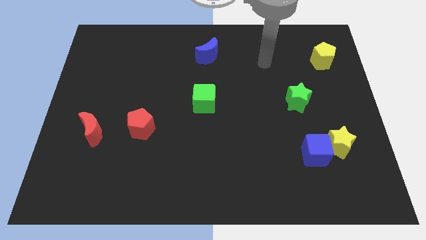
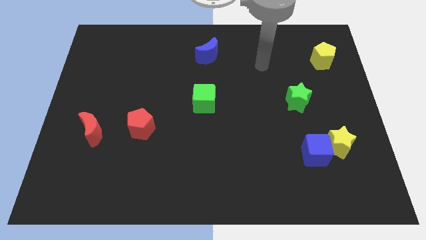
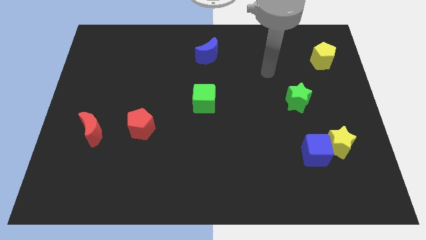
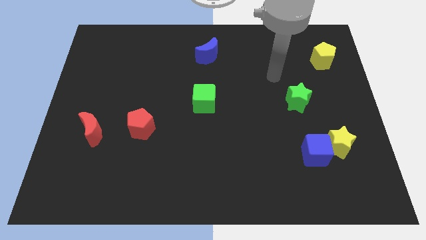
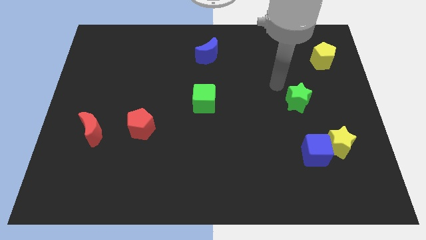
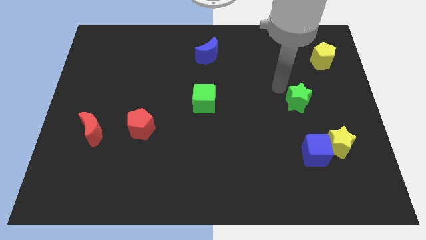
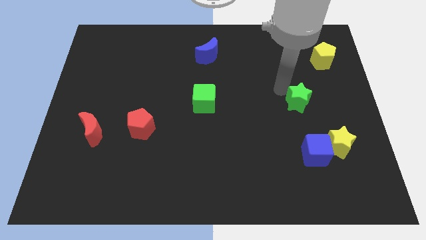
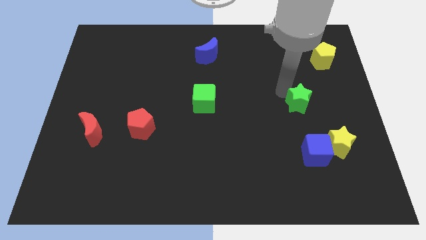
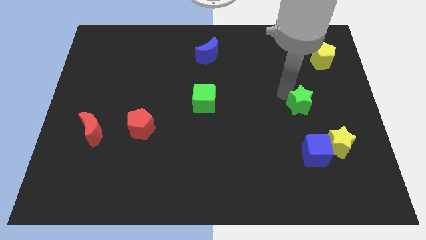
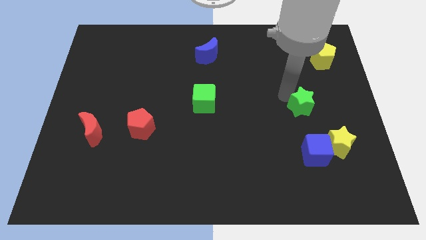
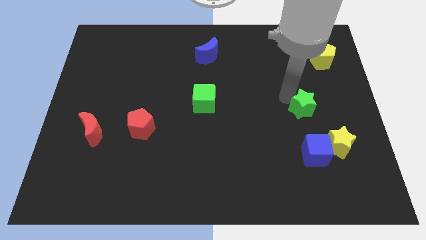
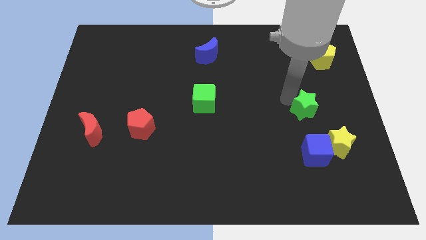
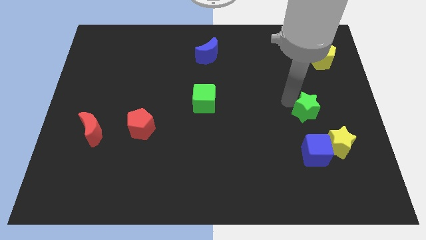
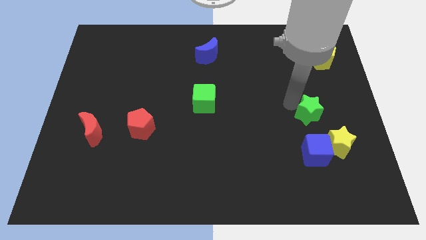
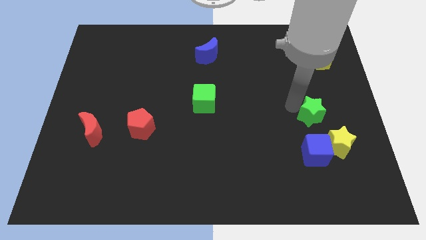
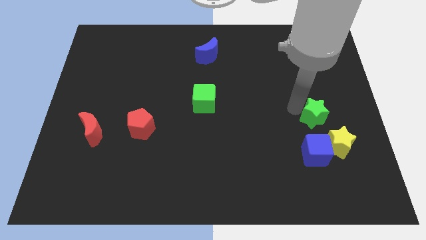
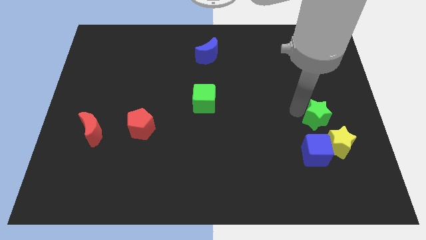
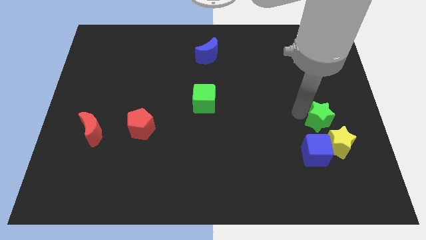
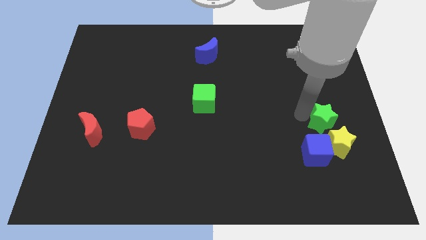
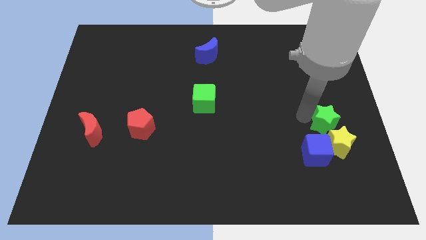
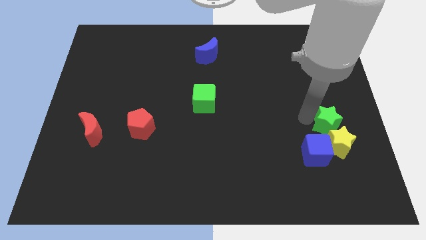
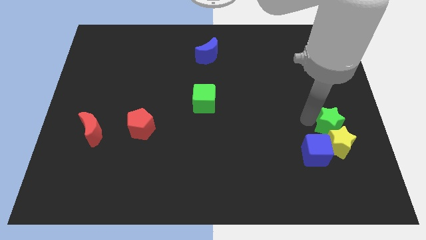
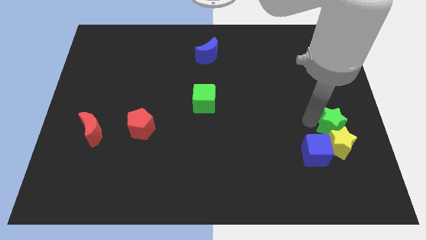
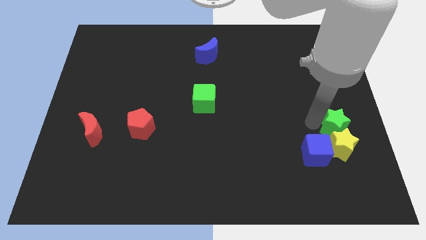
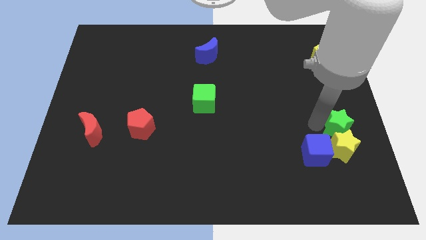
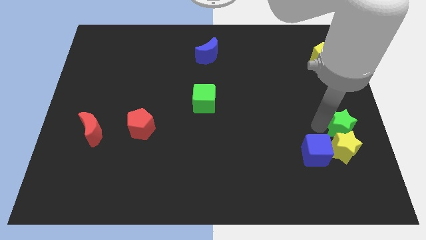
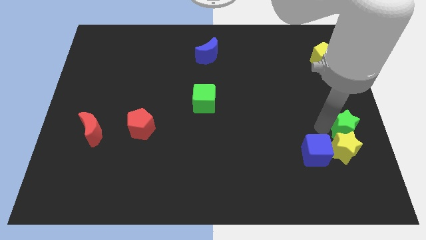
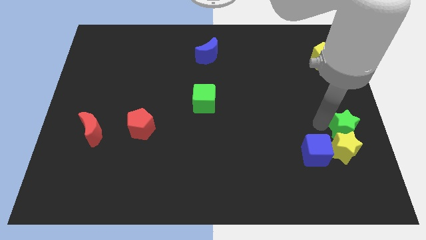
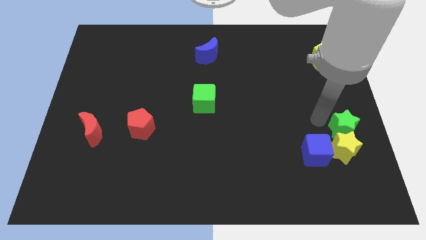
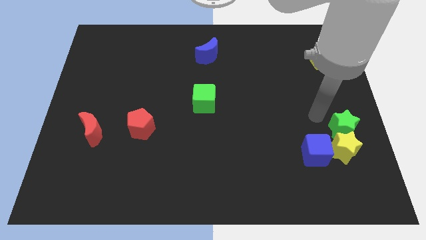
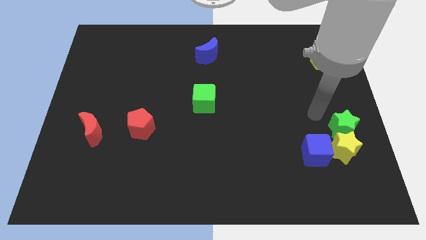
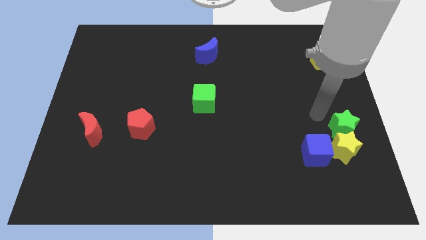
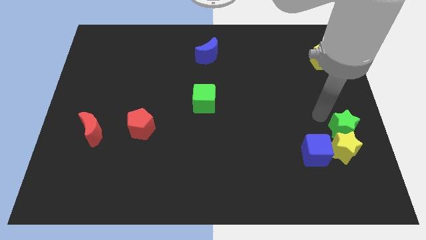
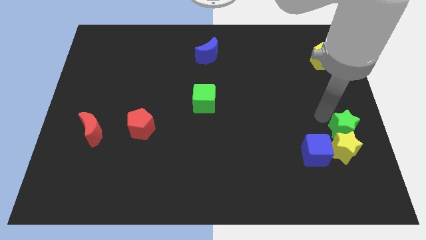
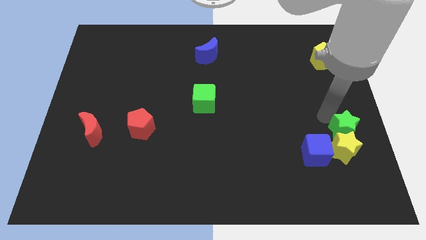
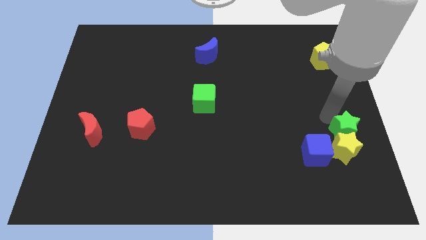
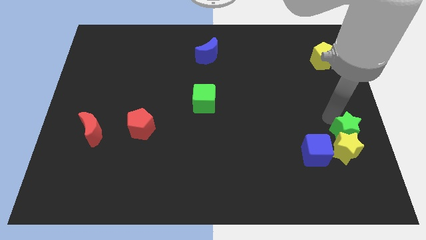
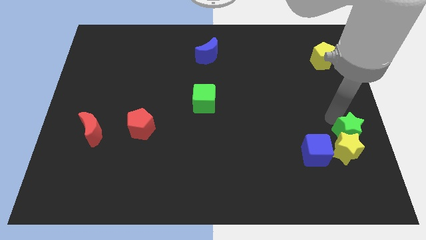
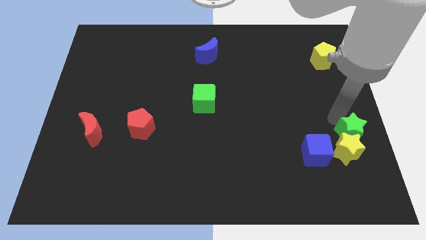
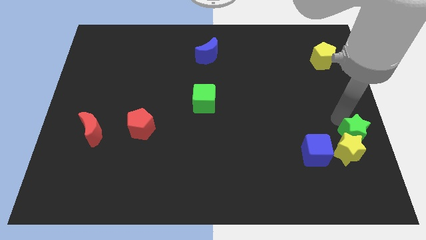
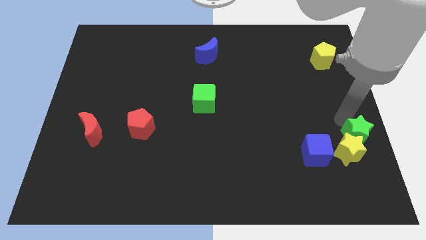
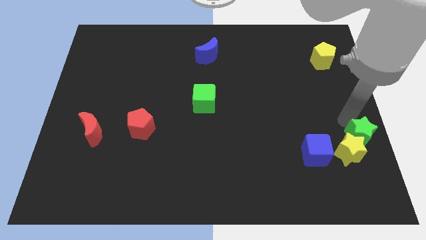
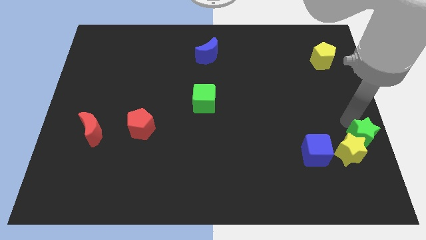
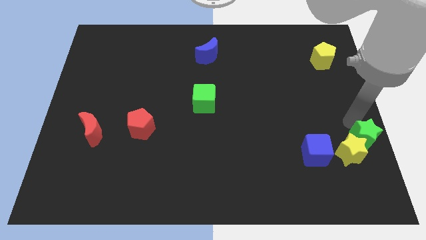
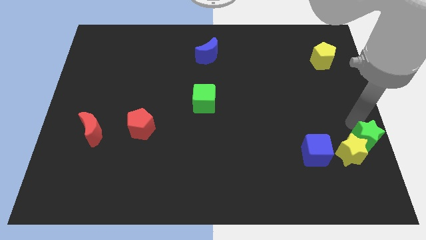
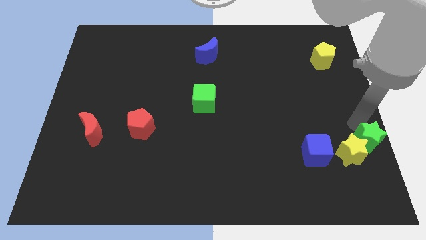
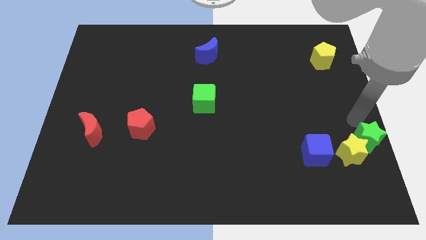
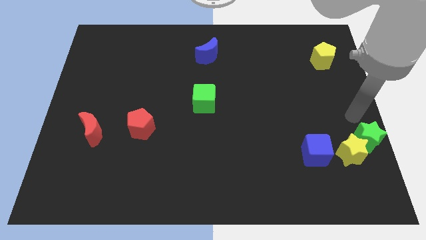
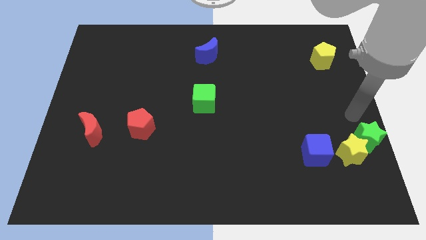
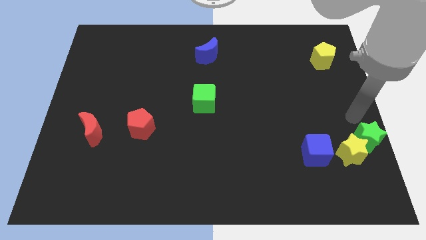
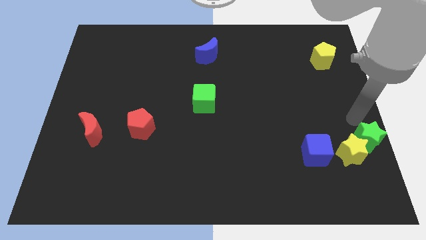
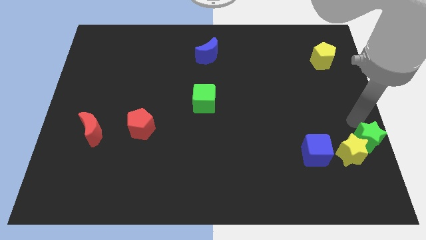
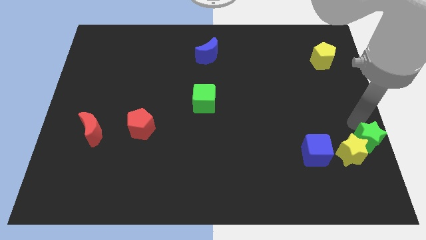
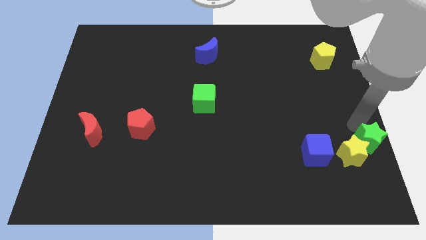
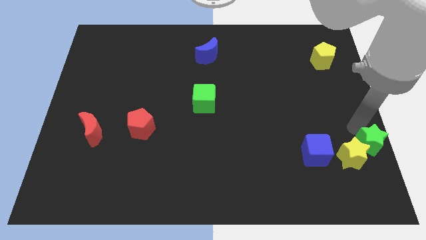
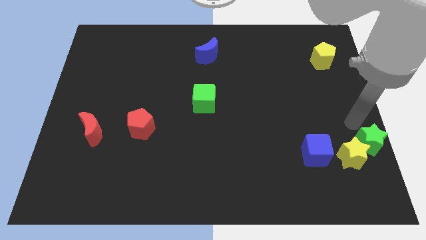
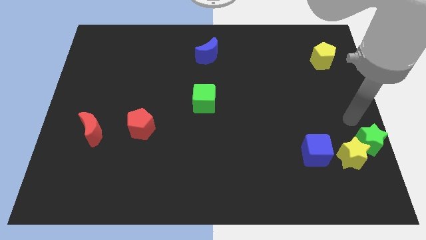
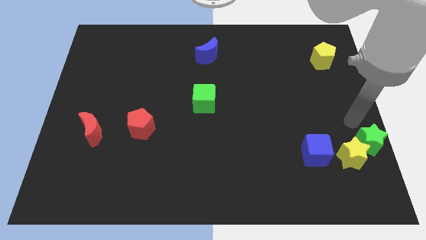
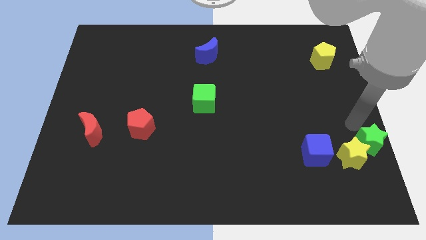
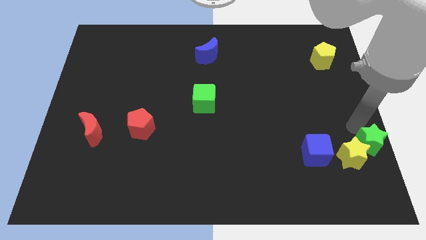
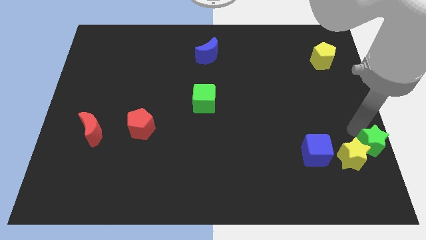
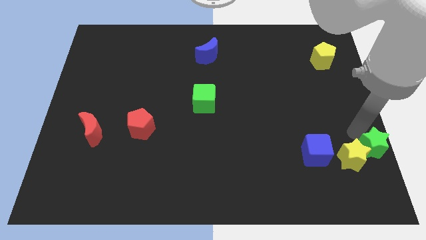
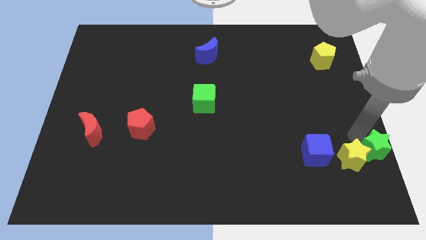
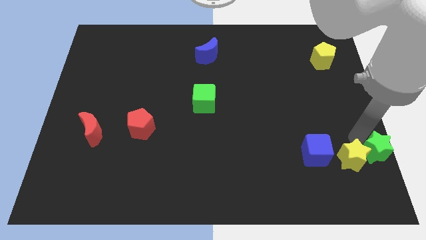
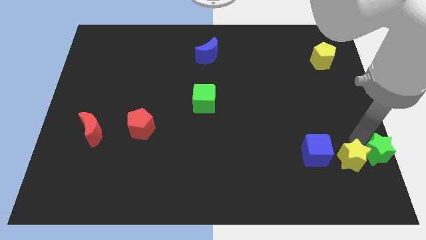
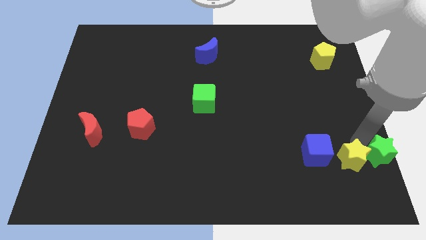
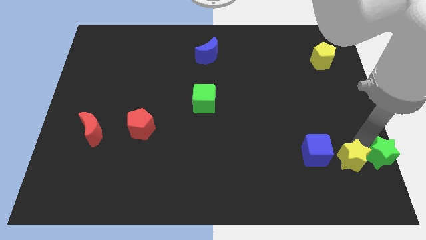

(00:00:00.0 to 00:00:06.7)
move the green star to the bottom right of the board

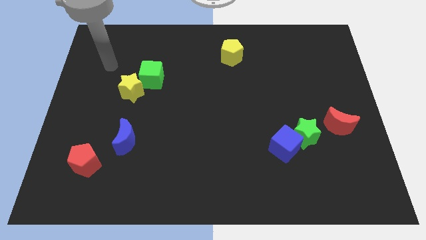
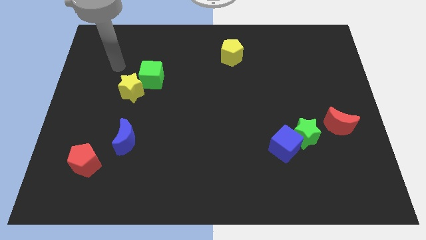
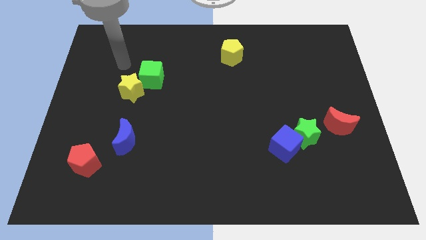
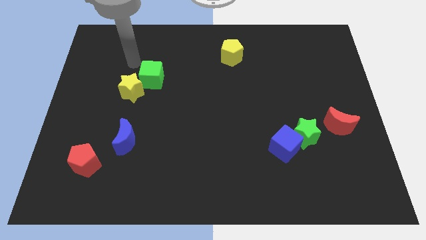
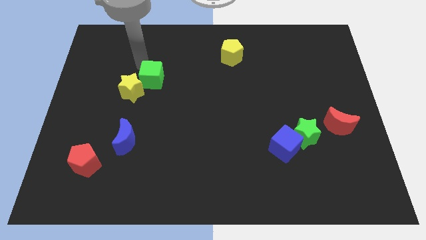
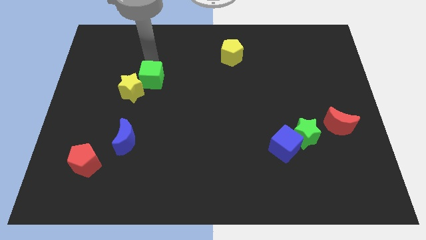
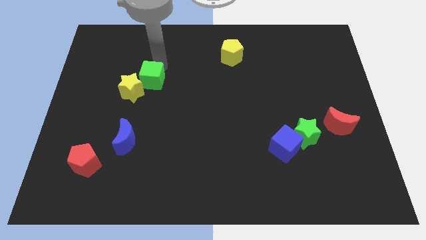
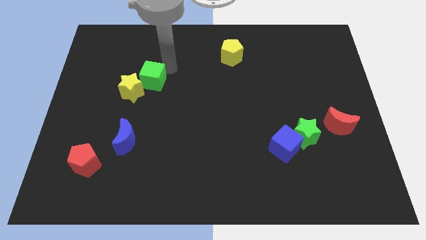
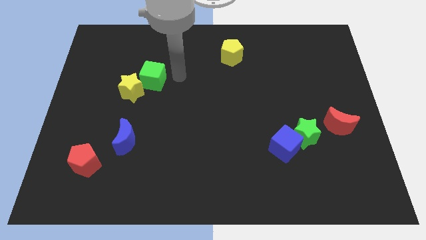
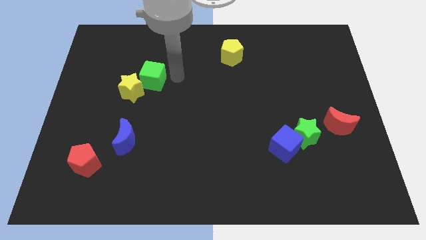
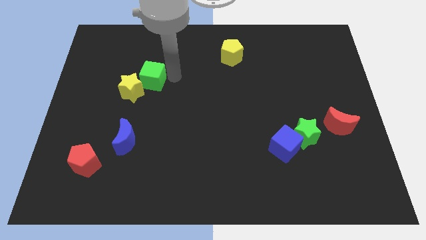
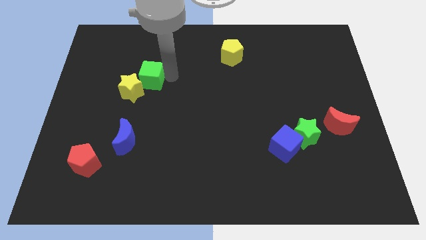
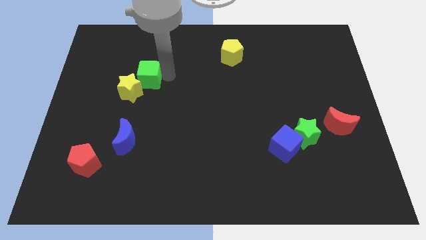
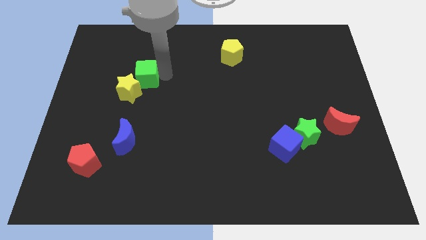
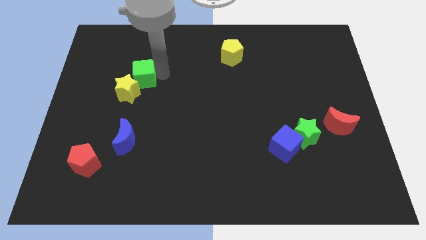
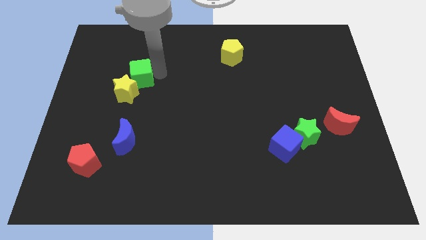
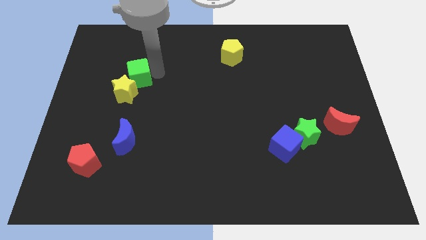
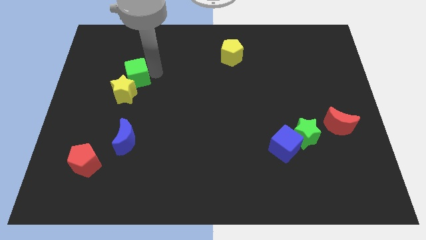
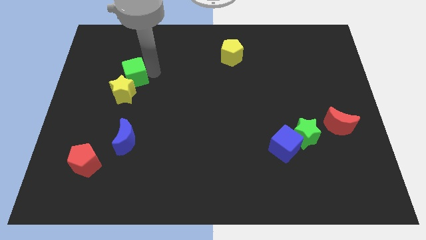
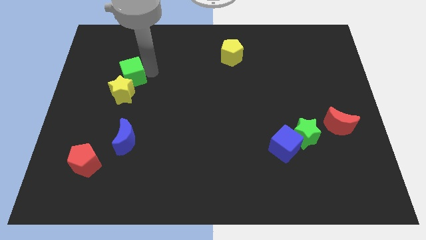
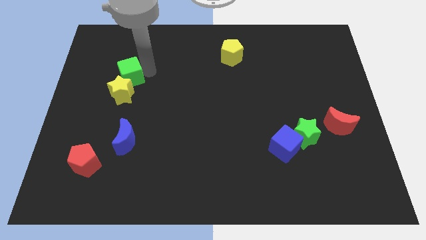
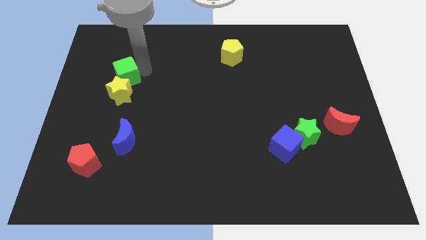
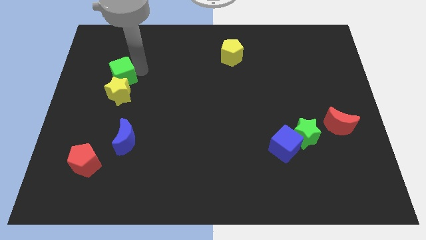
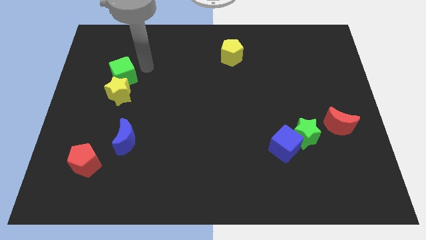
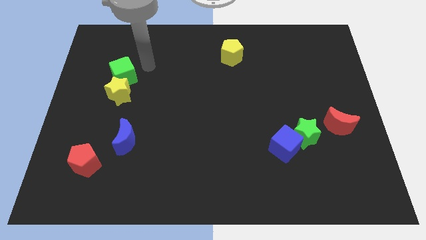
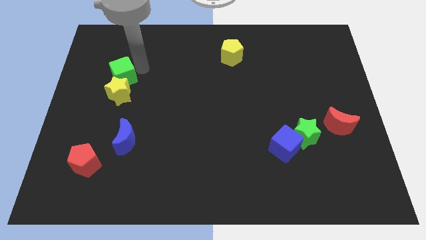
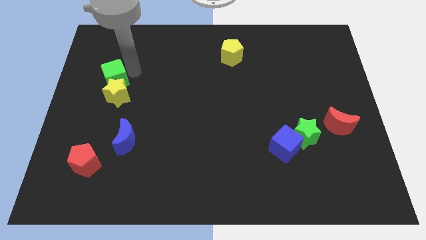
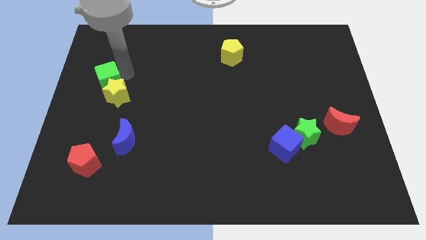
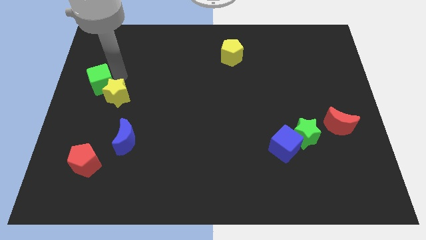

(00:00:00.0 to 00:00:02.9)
push the green cube to the center left
